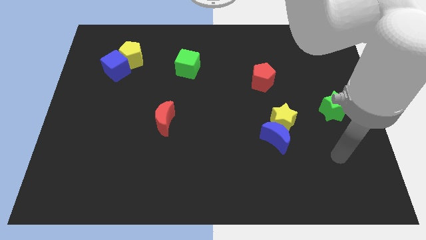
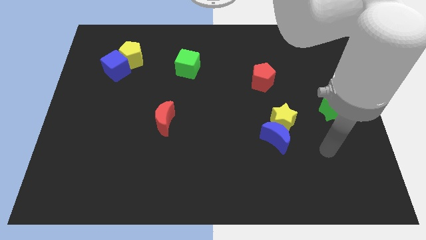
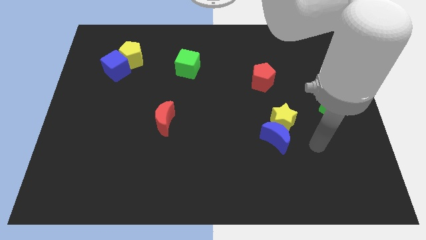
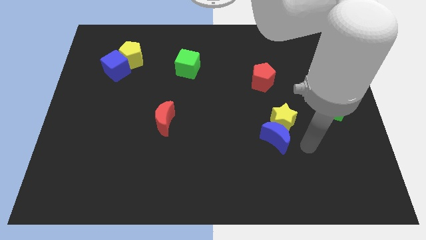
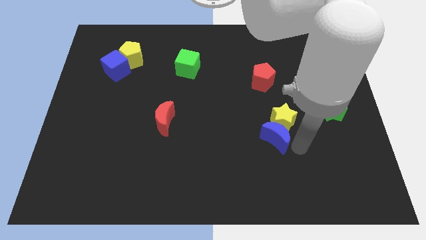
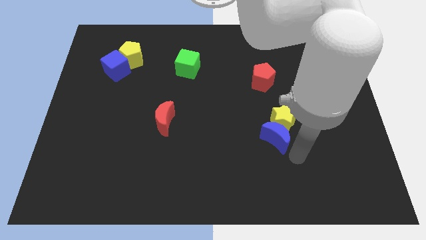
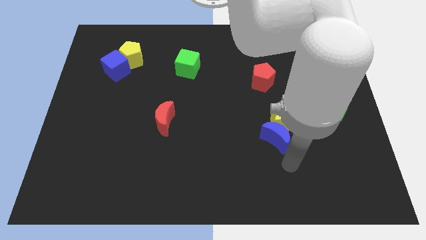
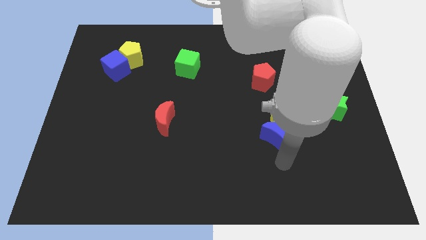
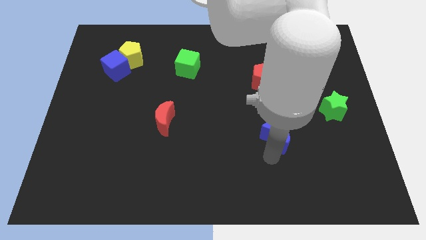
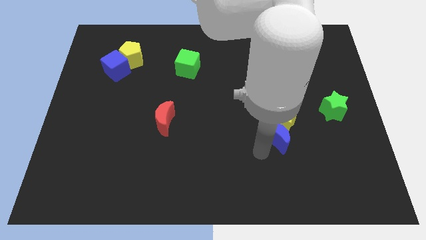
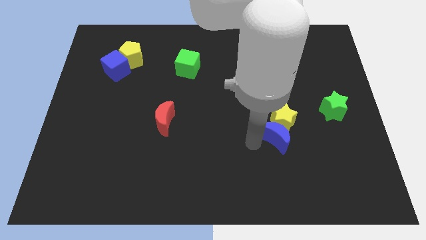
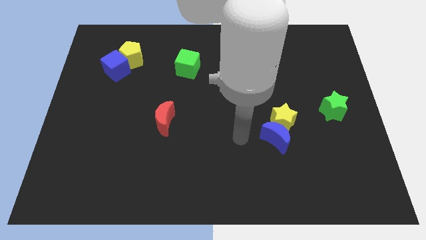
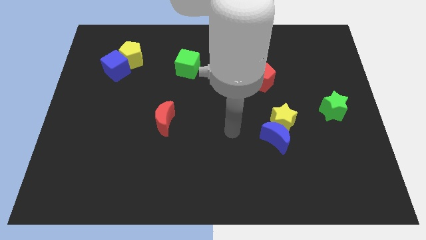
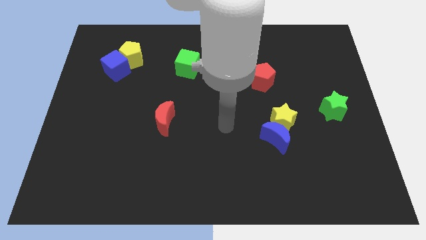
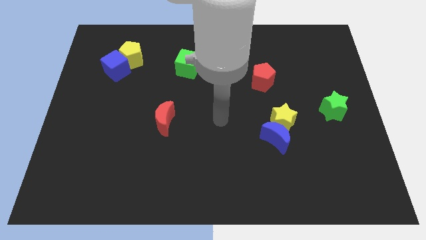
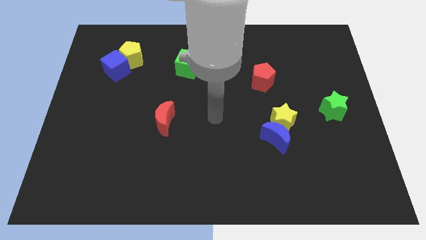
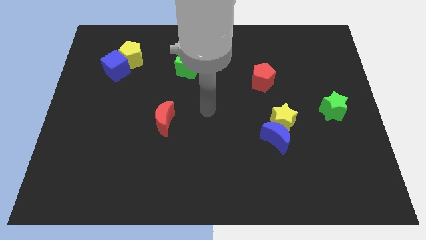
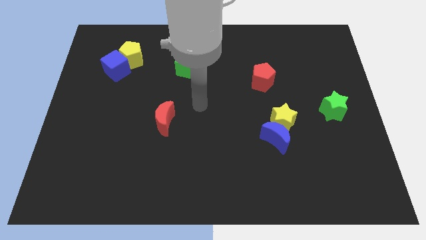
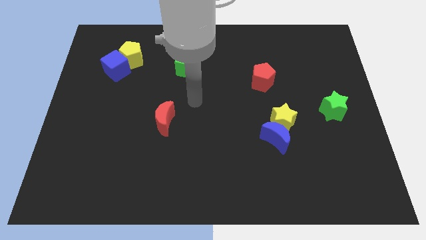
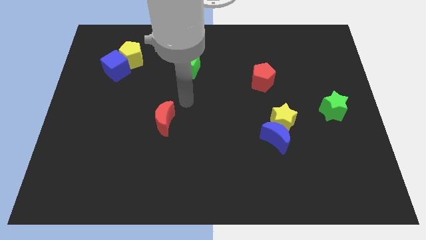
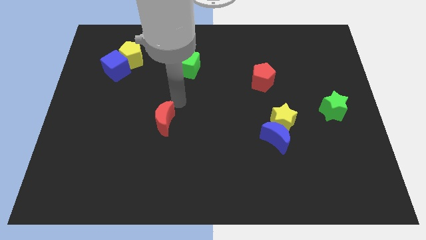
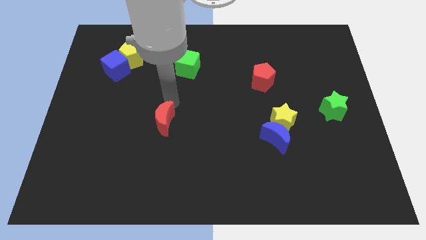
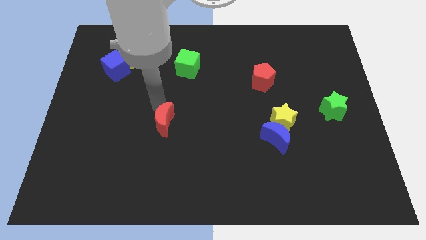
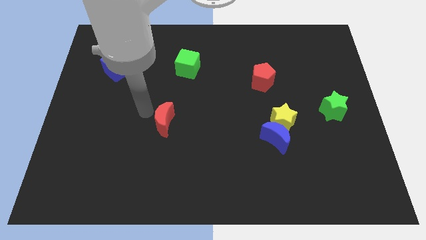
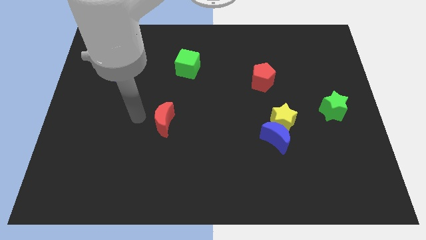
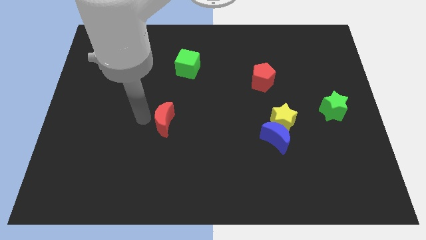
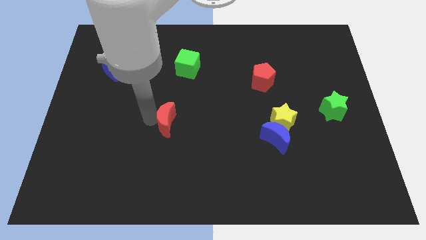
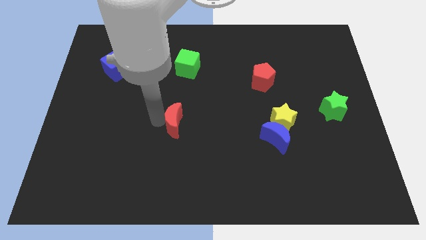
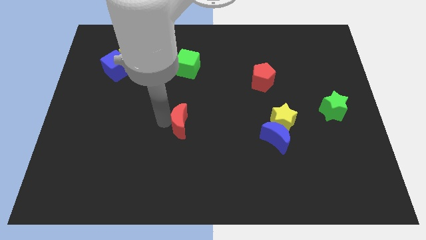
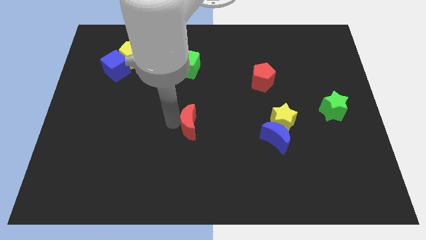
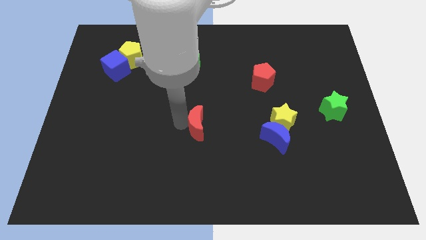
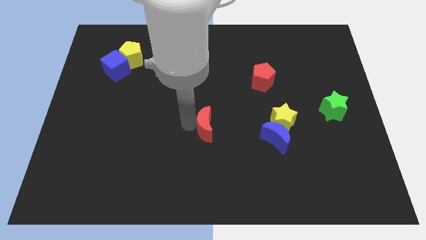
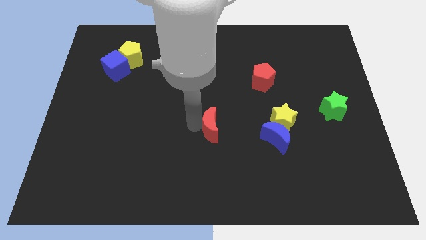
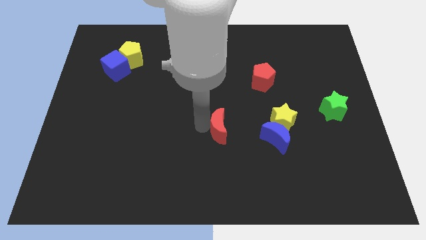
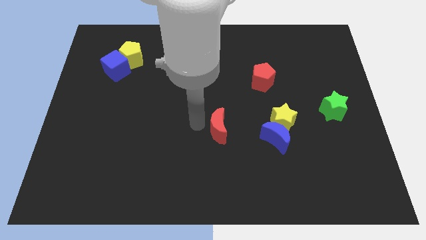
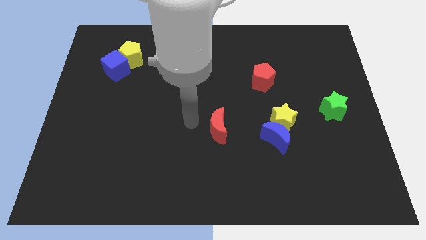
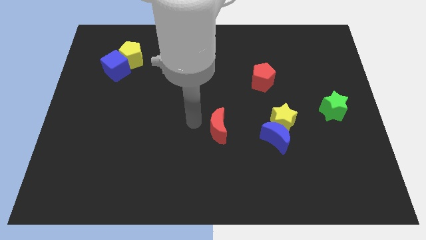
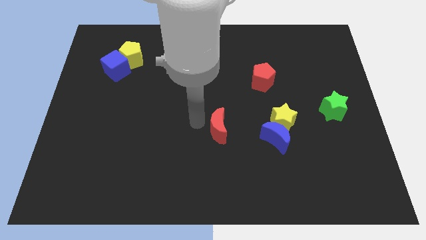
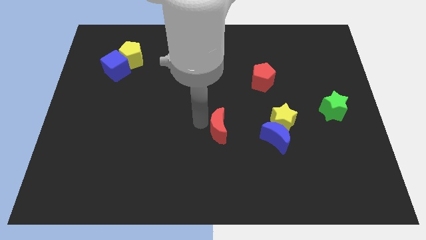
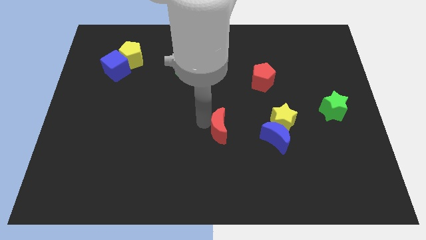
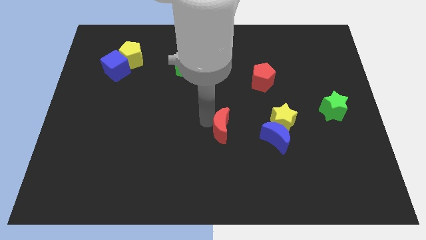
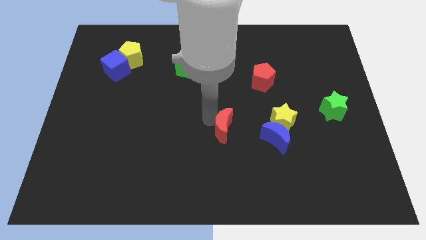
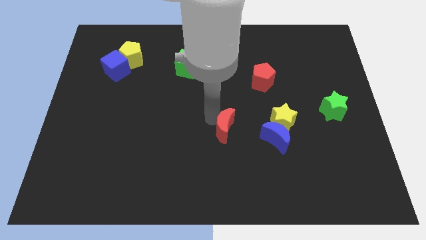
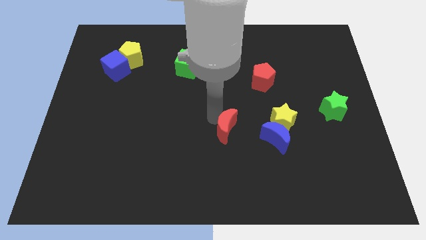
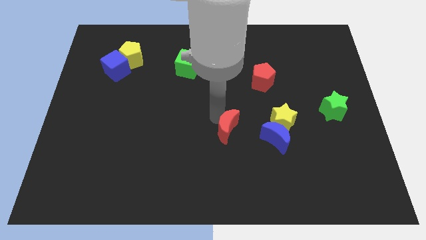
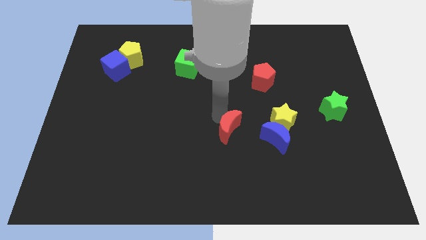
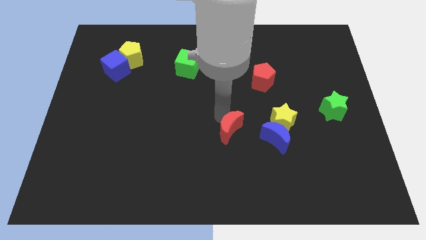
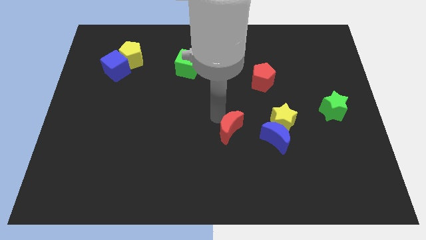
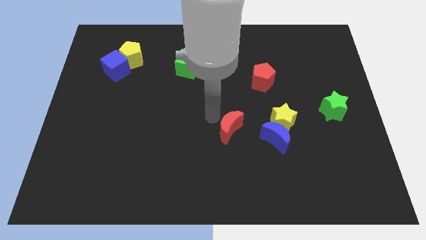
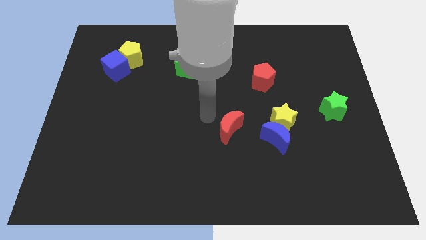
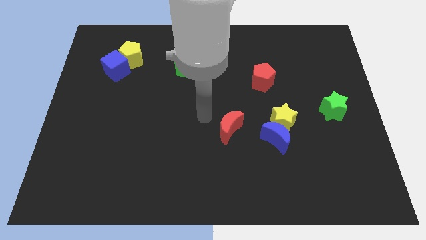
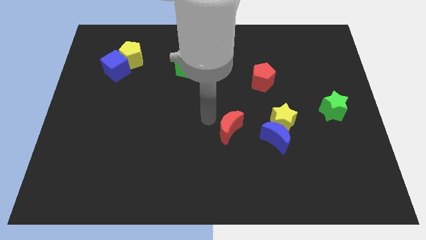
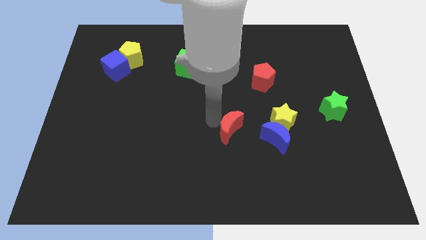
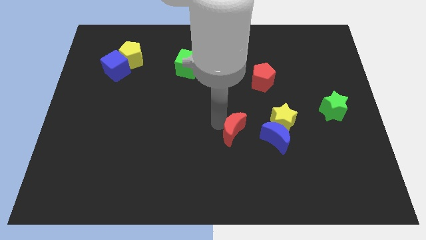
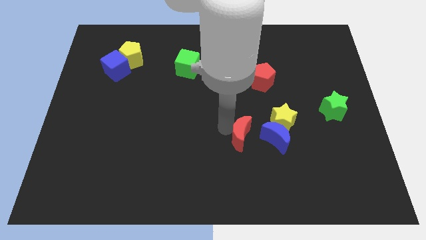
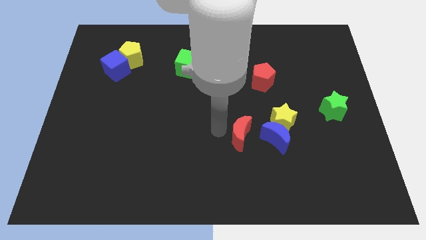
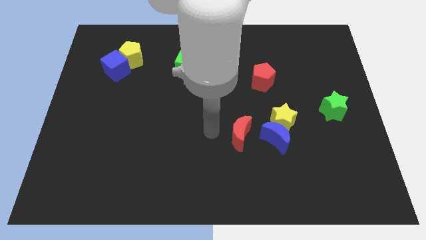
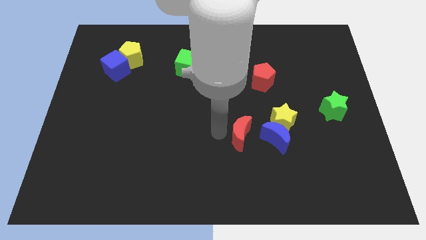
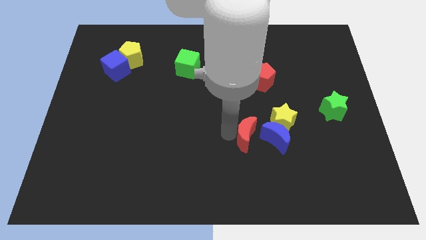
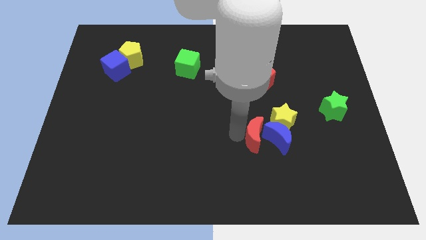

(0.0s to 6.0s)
move the red moon towards the blue moon

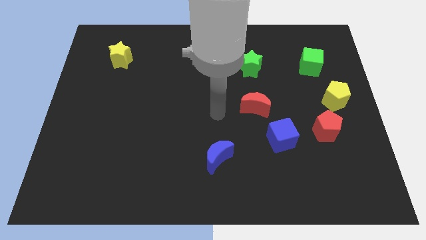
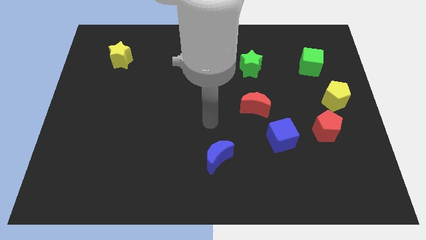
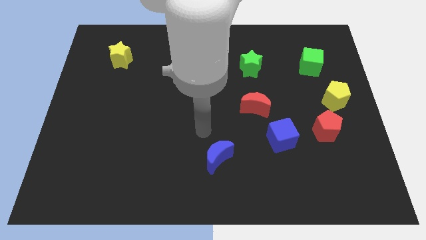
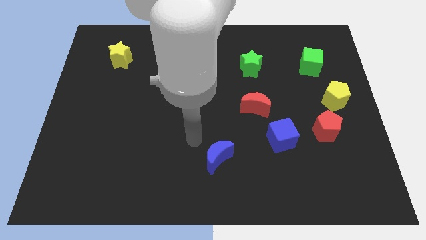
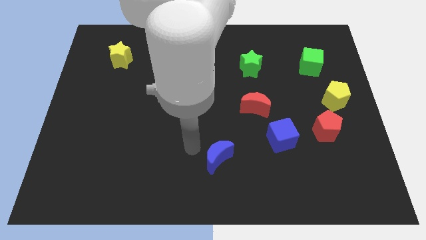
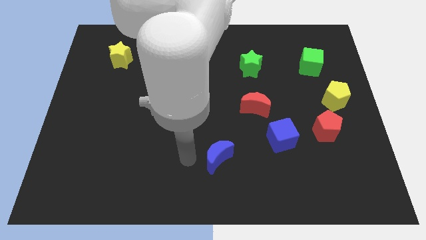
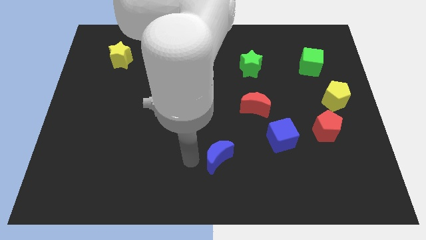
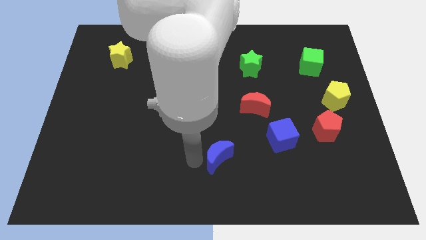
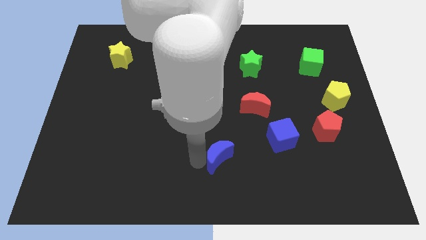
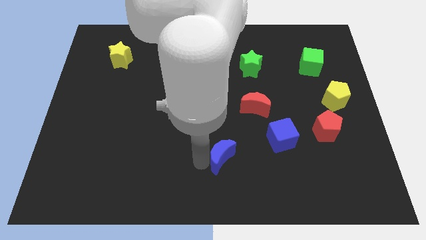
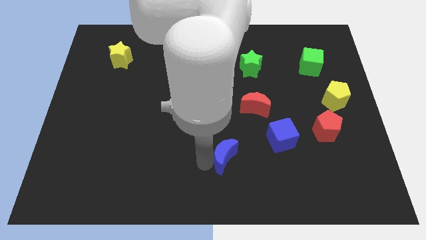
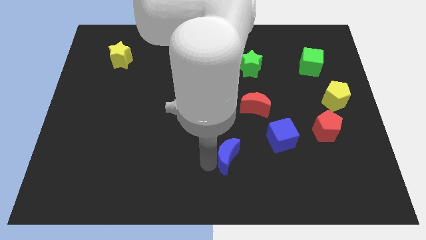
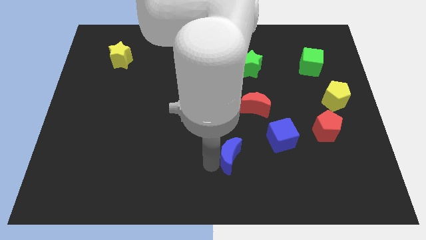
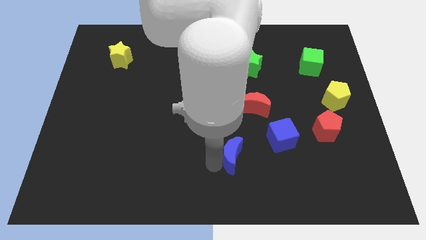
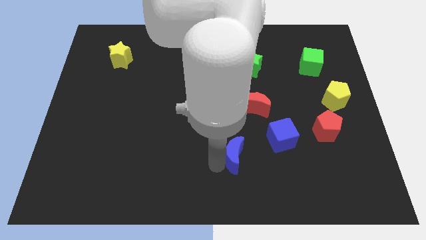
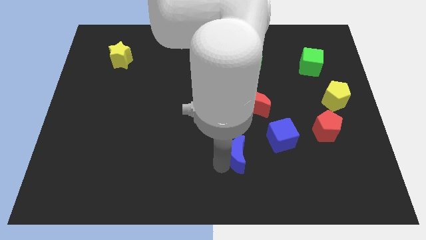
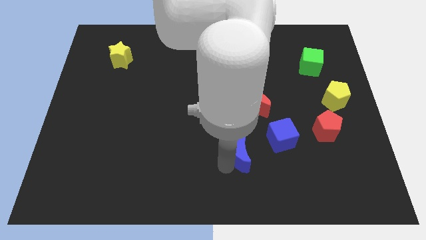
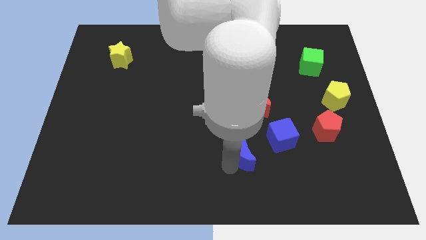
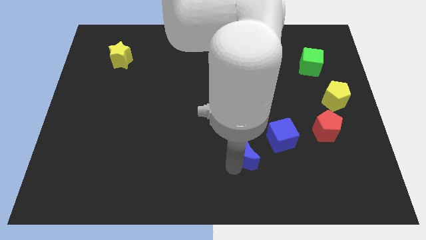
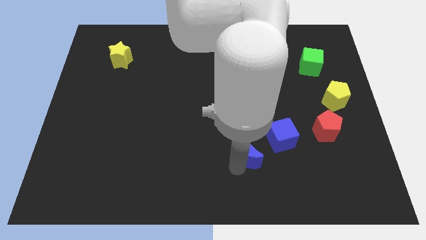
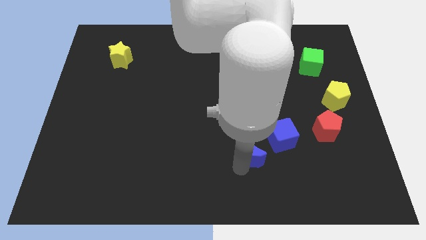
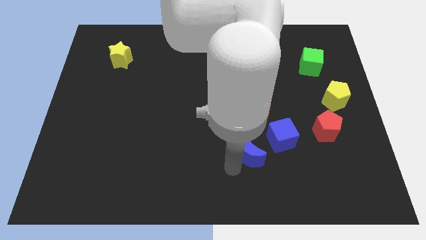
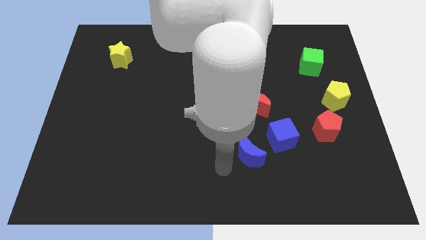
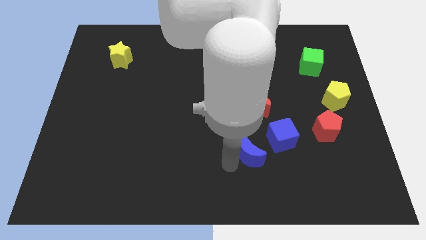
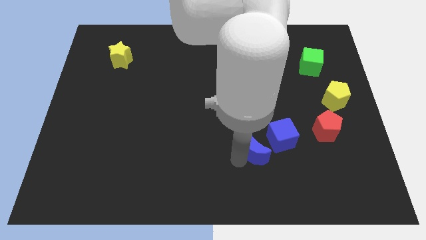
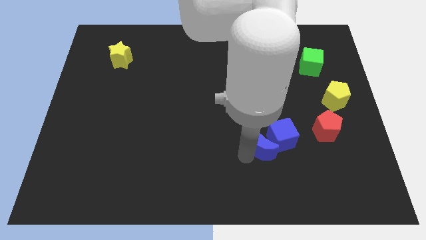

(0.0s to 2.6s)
slide the blue moon next to the blue cube
